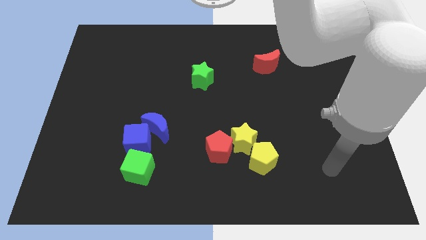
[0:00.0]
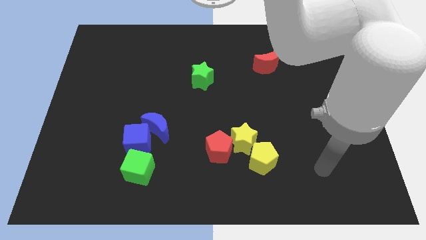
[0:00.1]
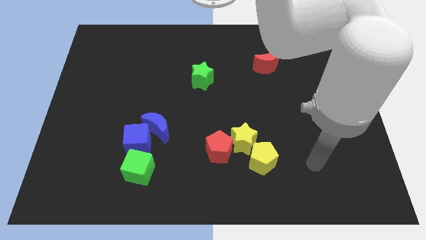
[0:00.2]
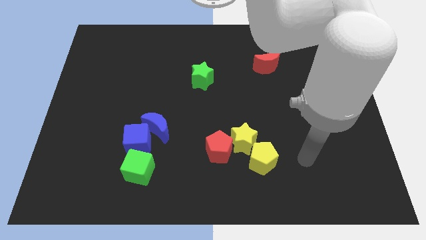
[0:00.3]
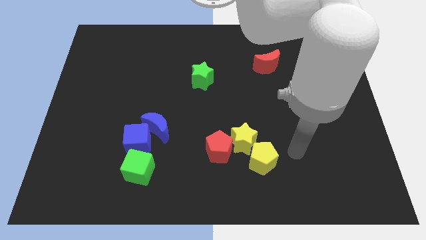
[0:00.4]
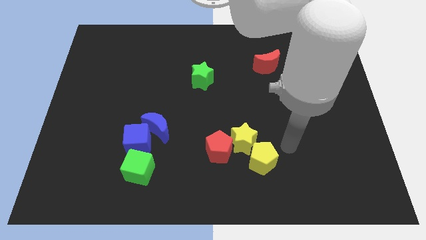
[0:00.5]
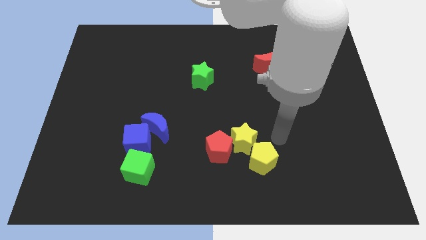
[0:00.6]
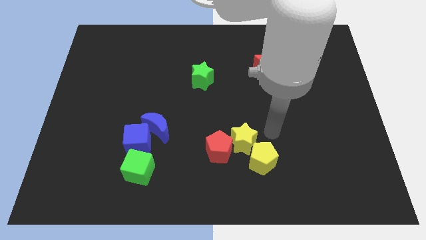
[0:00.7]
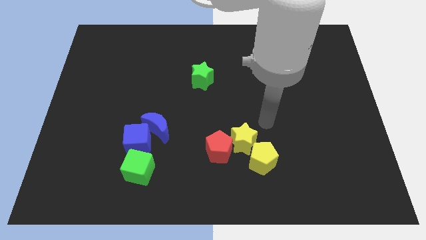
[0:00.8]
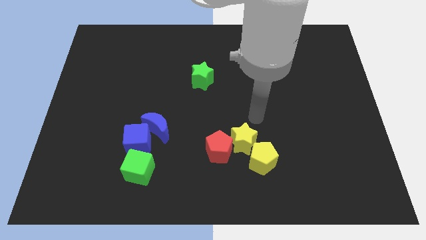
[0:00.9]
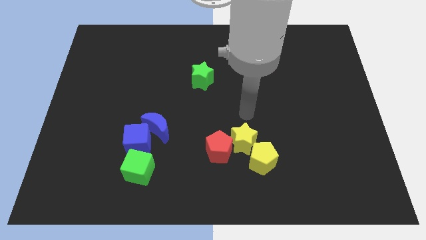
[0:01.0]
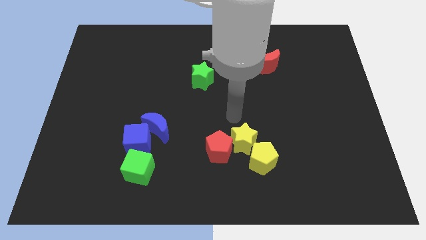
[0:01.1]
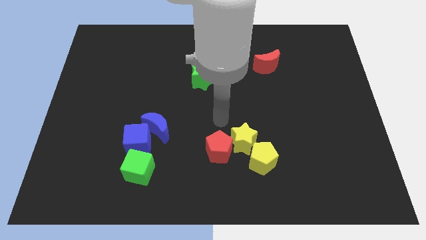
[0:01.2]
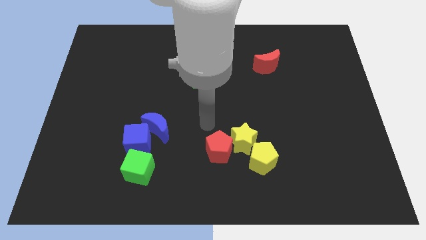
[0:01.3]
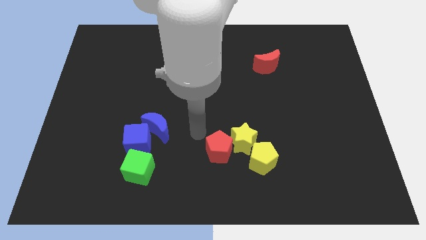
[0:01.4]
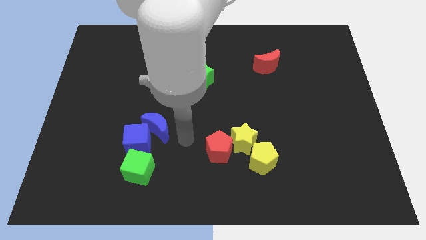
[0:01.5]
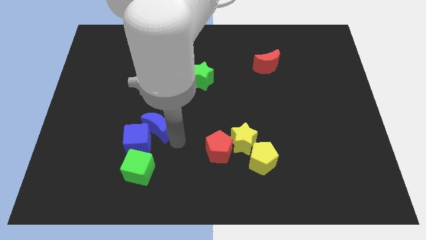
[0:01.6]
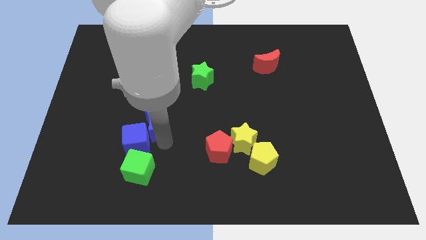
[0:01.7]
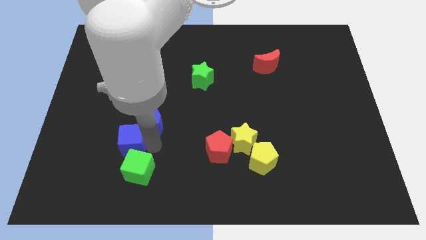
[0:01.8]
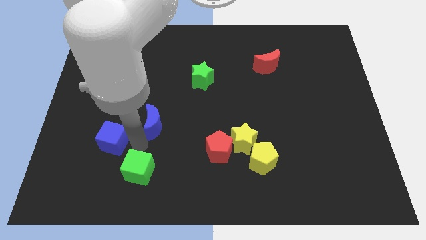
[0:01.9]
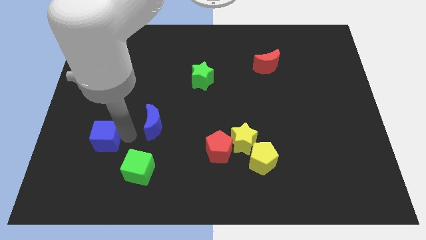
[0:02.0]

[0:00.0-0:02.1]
separate the blue moon from the blue cube

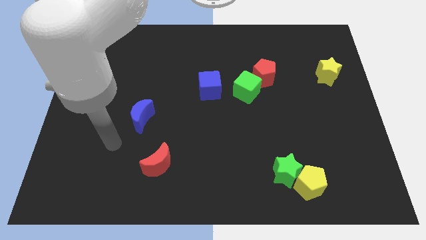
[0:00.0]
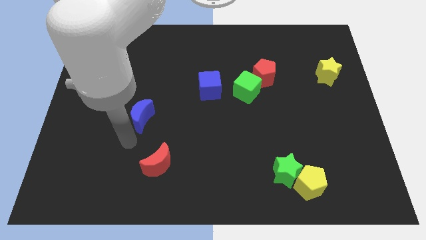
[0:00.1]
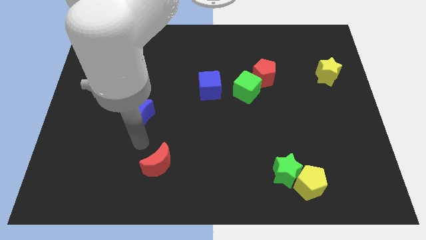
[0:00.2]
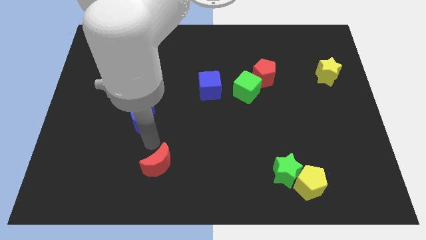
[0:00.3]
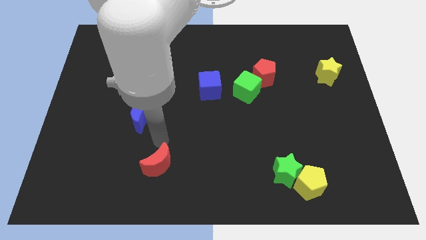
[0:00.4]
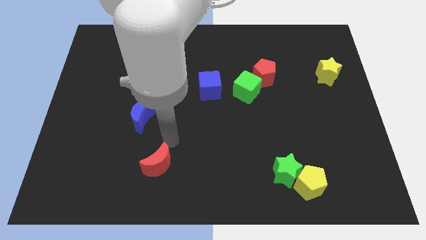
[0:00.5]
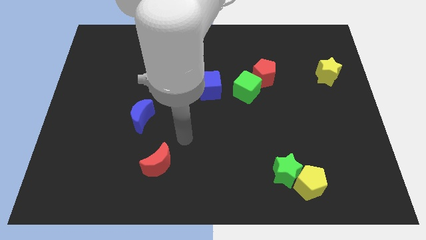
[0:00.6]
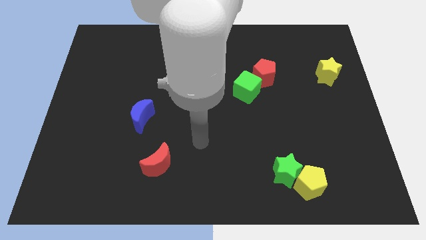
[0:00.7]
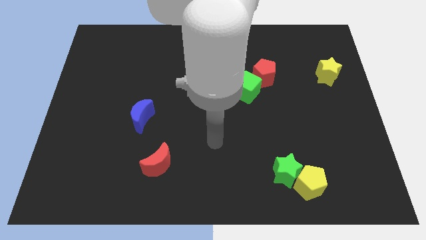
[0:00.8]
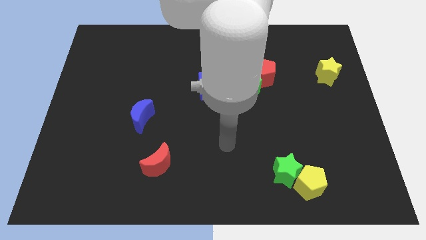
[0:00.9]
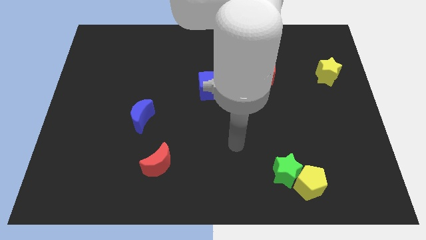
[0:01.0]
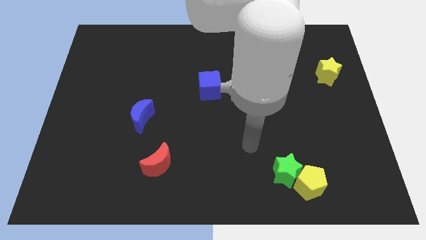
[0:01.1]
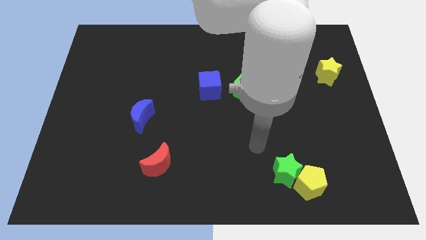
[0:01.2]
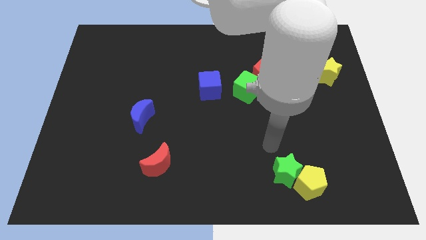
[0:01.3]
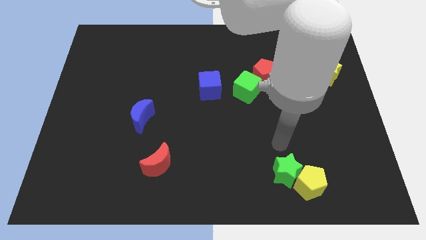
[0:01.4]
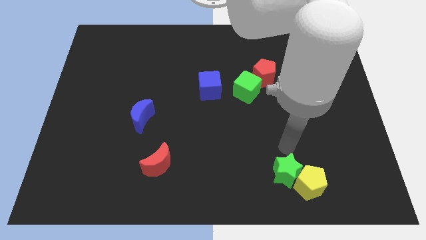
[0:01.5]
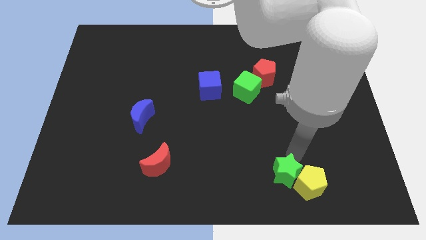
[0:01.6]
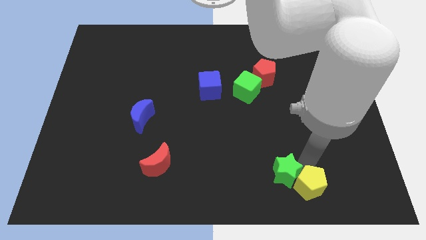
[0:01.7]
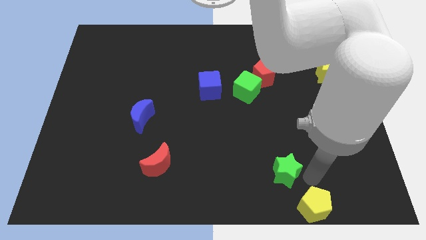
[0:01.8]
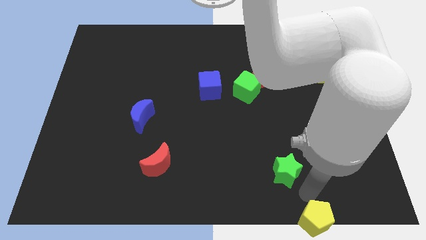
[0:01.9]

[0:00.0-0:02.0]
pull the green star apart from the yellow pentagon

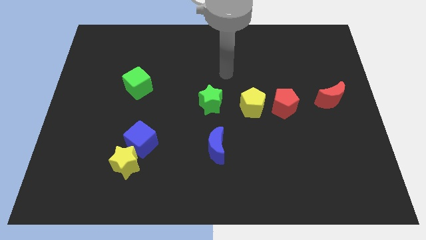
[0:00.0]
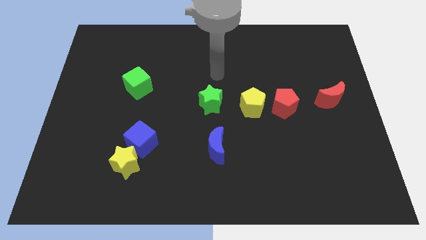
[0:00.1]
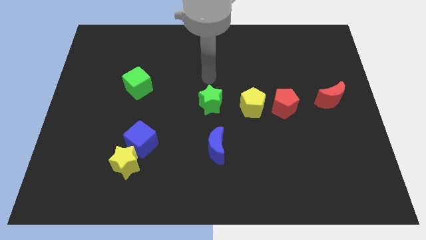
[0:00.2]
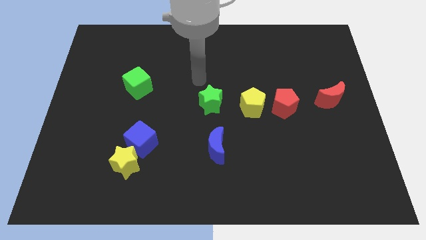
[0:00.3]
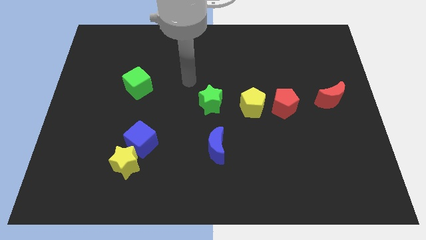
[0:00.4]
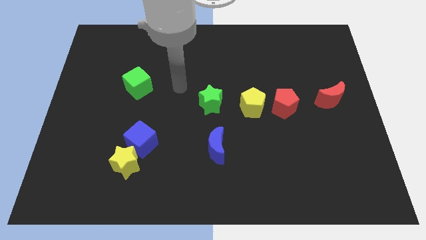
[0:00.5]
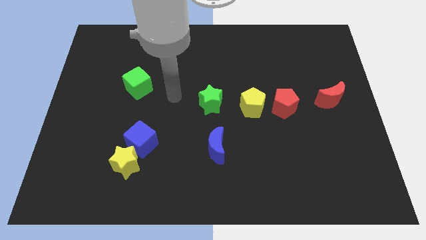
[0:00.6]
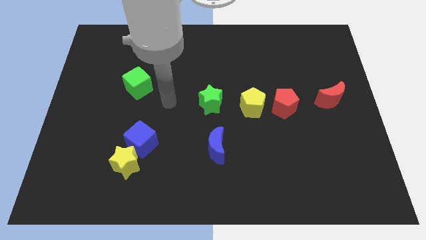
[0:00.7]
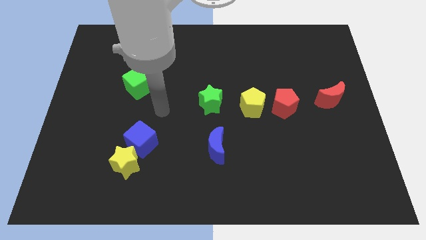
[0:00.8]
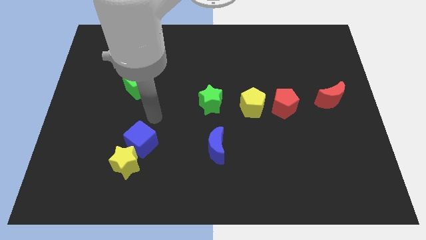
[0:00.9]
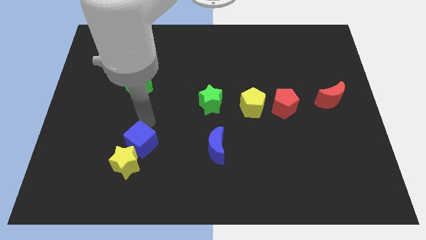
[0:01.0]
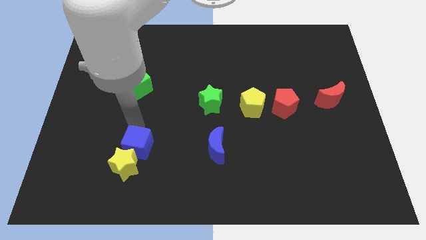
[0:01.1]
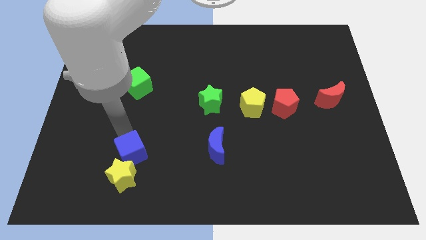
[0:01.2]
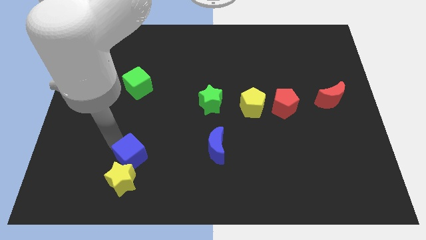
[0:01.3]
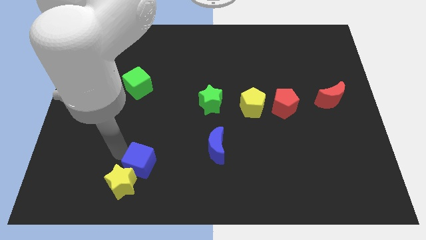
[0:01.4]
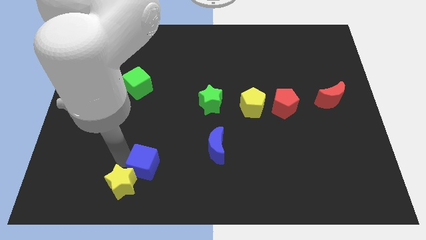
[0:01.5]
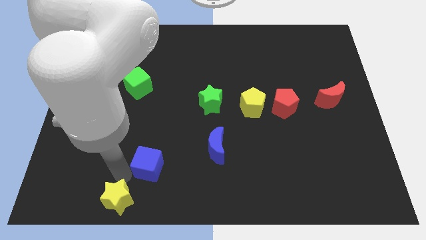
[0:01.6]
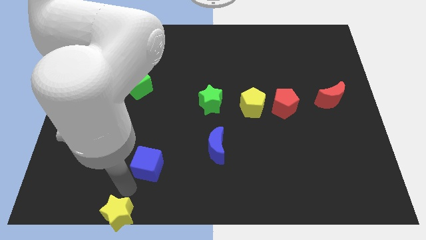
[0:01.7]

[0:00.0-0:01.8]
move the blue cube away from the yellow star

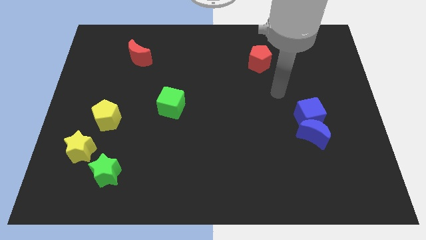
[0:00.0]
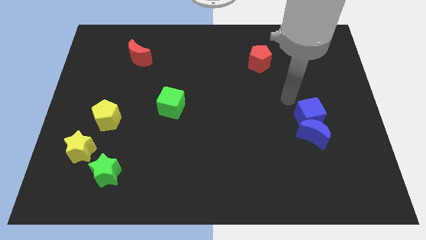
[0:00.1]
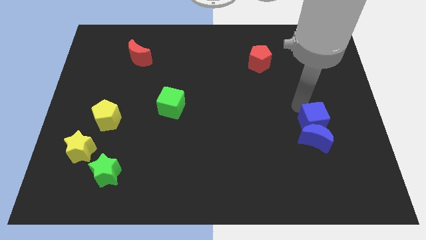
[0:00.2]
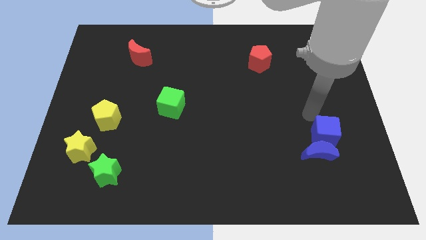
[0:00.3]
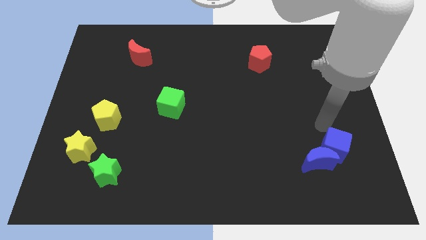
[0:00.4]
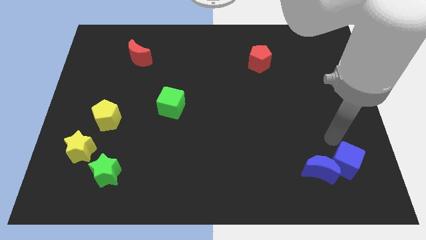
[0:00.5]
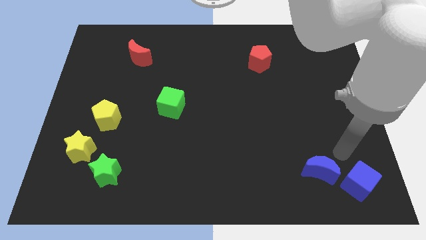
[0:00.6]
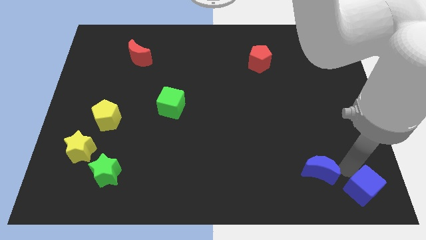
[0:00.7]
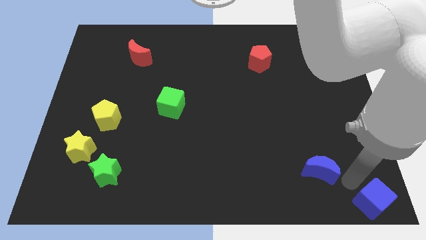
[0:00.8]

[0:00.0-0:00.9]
move the blue moon away from the blue cube

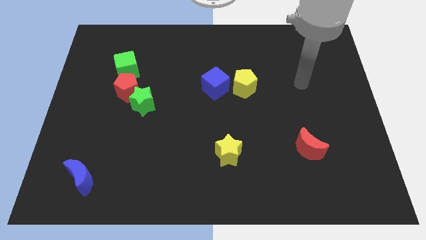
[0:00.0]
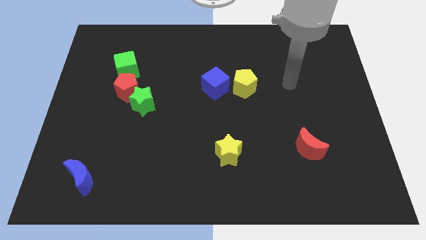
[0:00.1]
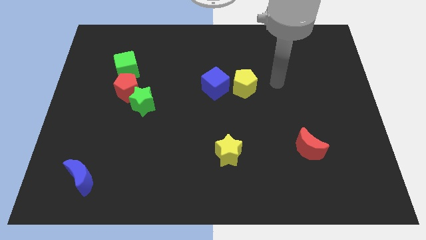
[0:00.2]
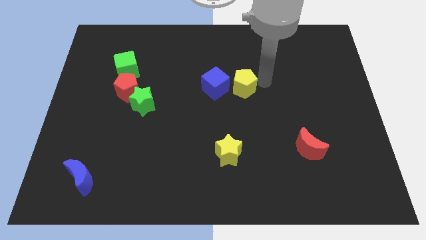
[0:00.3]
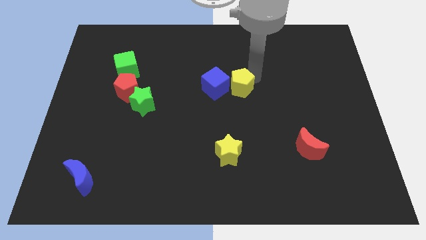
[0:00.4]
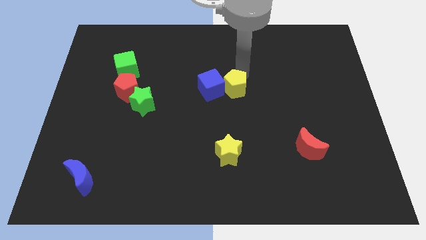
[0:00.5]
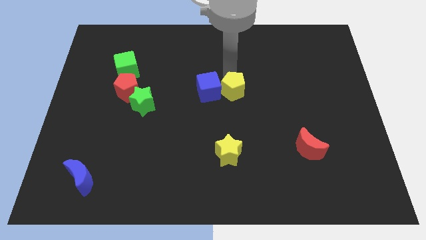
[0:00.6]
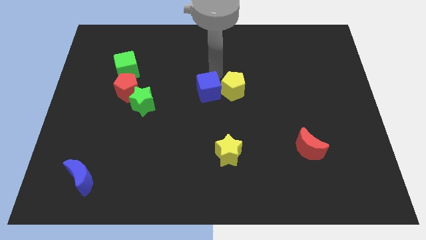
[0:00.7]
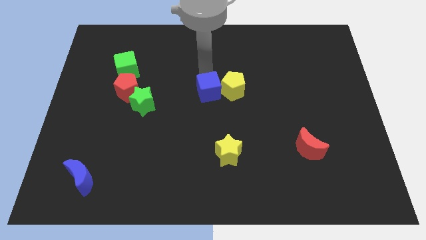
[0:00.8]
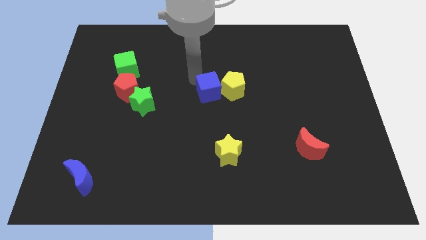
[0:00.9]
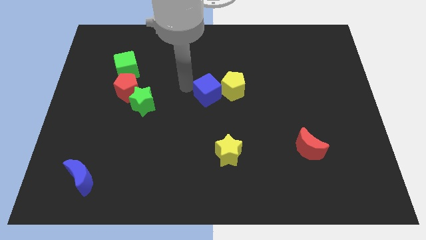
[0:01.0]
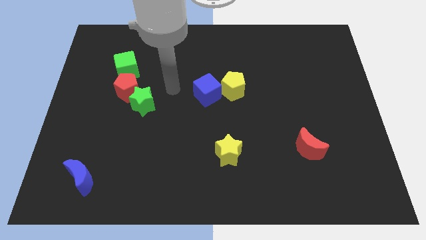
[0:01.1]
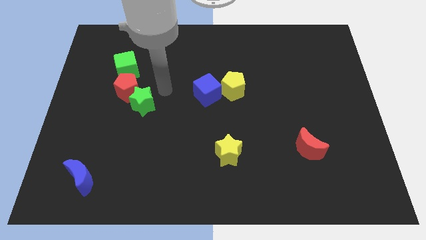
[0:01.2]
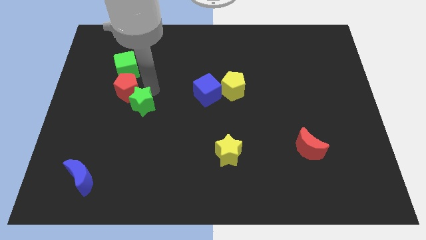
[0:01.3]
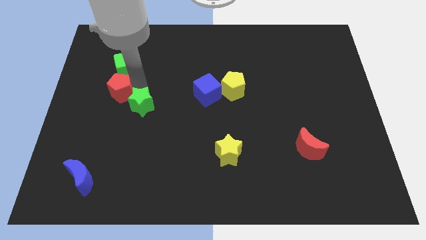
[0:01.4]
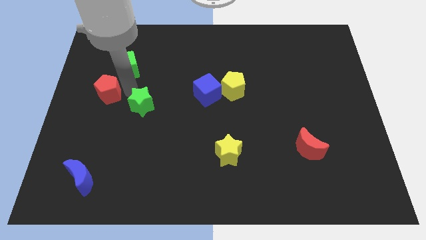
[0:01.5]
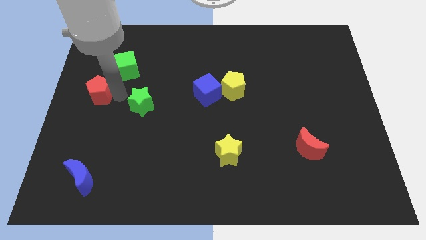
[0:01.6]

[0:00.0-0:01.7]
move the green star away from the red pentagon

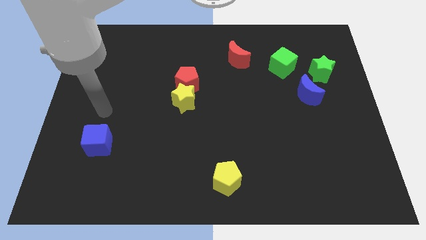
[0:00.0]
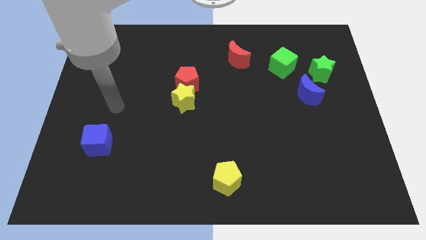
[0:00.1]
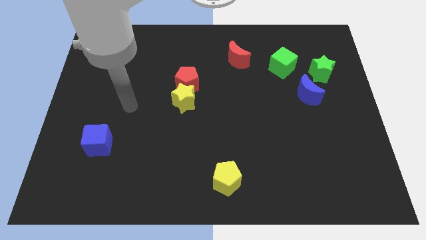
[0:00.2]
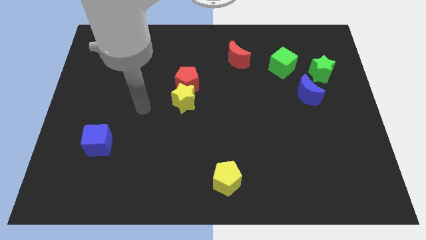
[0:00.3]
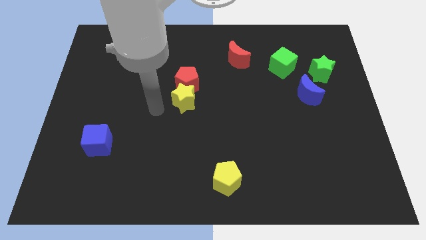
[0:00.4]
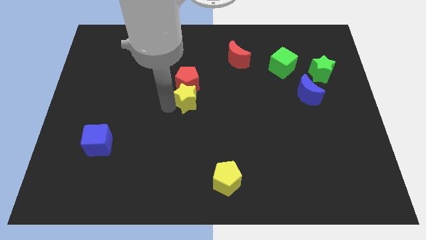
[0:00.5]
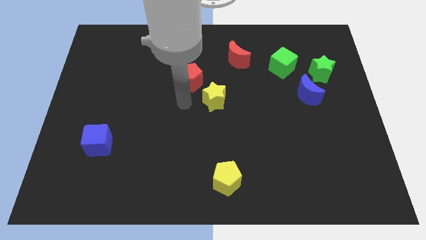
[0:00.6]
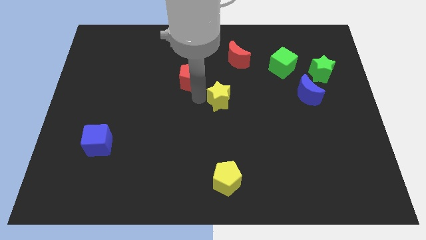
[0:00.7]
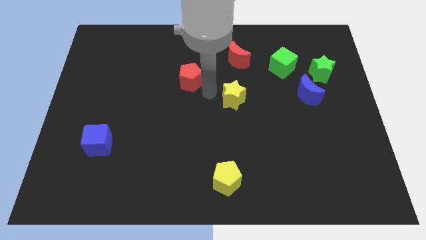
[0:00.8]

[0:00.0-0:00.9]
move the red pentagon away from the yellow star
